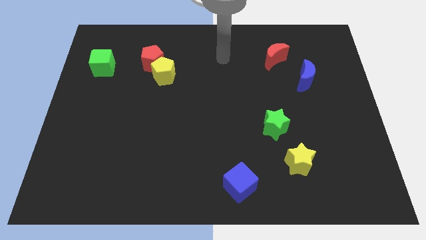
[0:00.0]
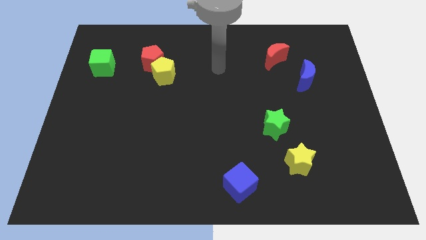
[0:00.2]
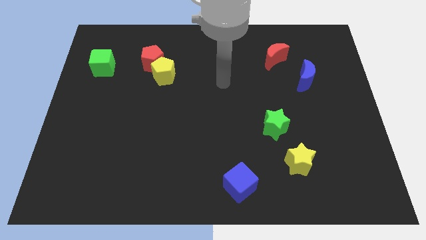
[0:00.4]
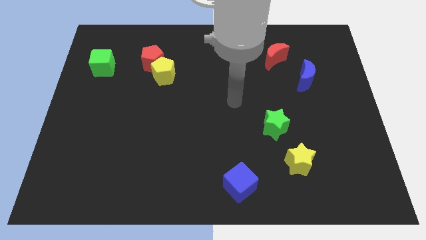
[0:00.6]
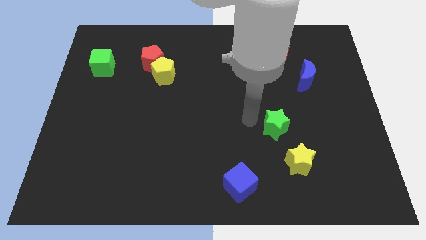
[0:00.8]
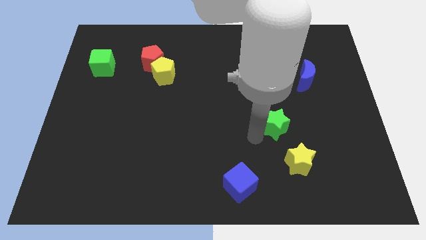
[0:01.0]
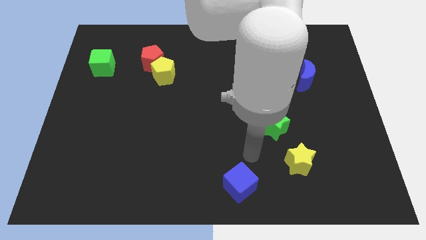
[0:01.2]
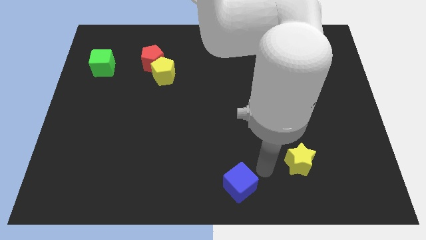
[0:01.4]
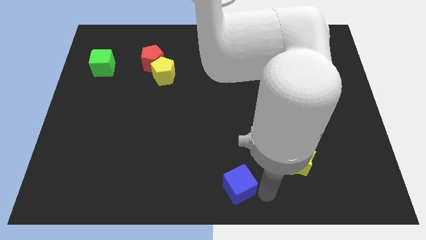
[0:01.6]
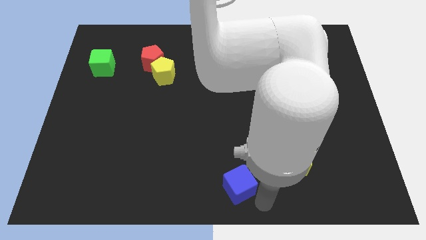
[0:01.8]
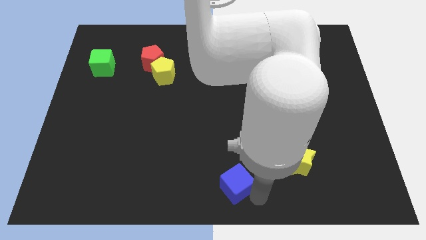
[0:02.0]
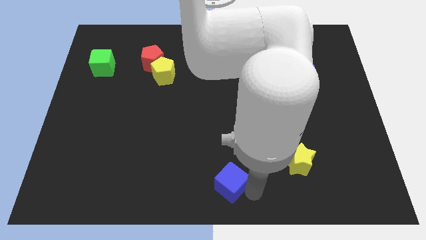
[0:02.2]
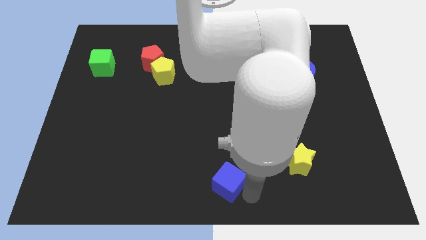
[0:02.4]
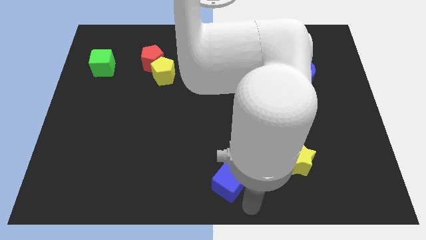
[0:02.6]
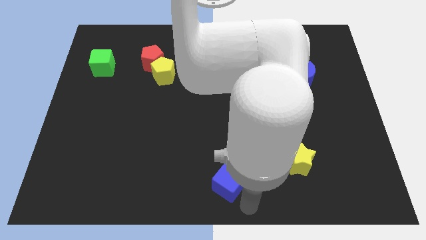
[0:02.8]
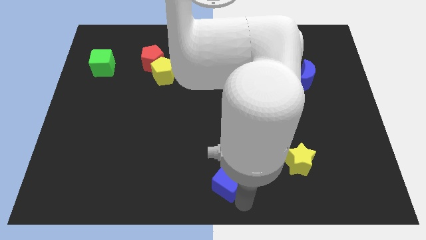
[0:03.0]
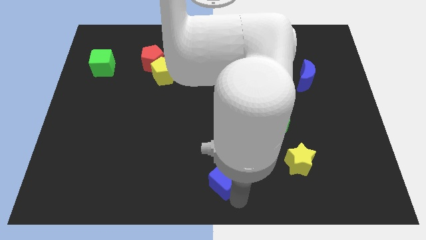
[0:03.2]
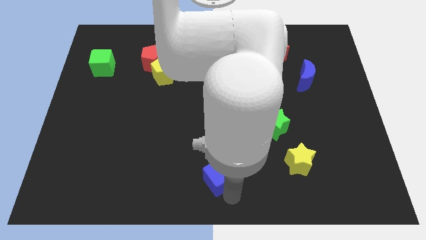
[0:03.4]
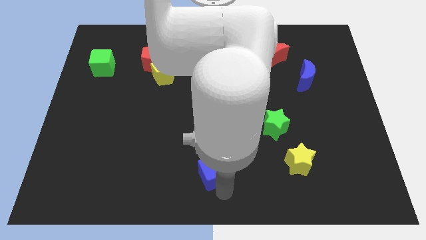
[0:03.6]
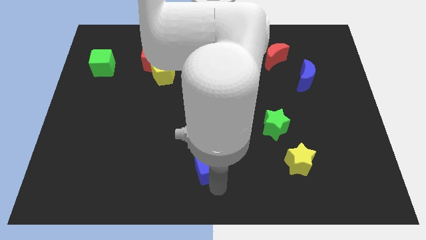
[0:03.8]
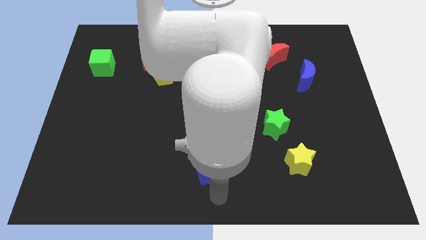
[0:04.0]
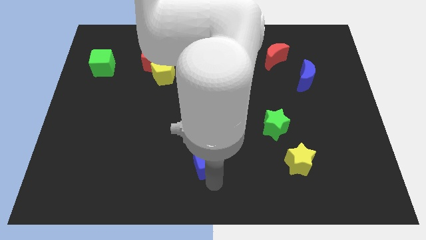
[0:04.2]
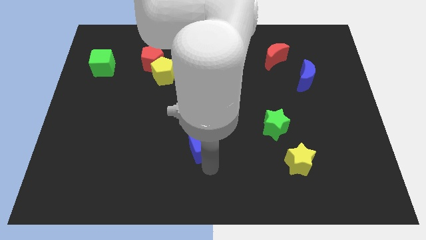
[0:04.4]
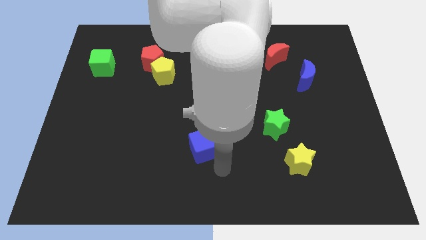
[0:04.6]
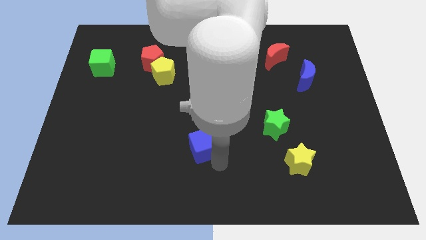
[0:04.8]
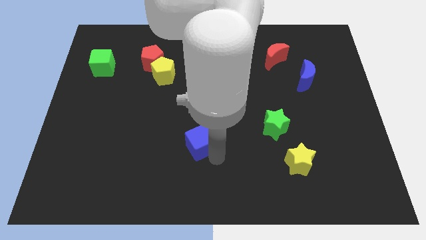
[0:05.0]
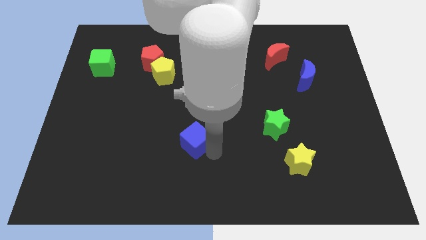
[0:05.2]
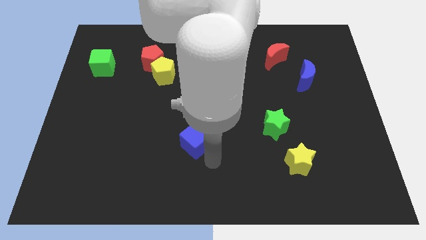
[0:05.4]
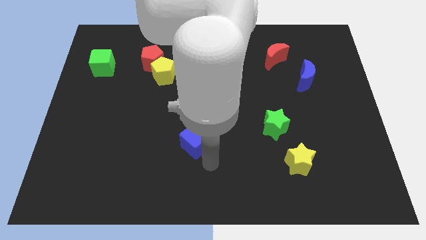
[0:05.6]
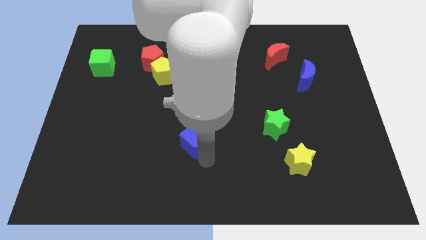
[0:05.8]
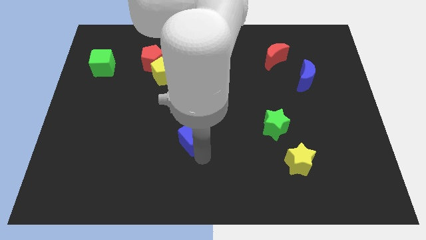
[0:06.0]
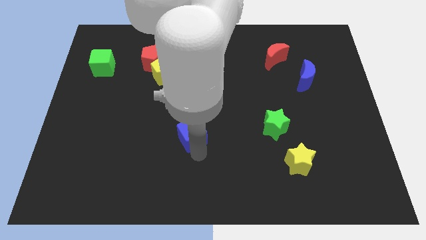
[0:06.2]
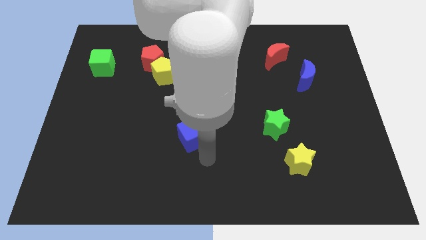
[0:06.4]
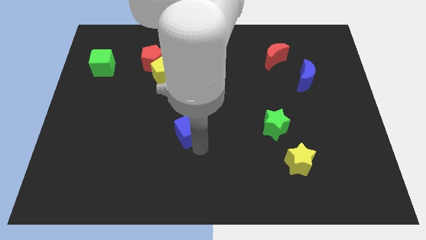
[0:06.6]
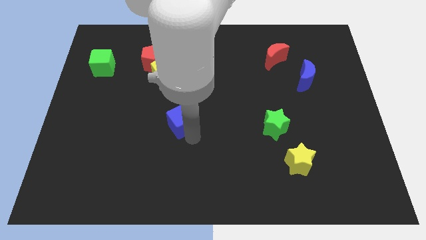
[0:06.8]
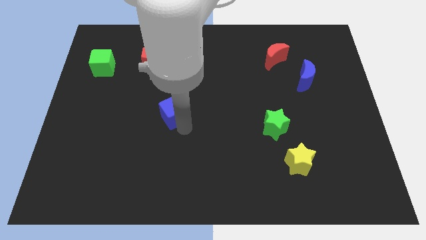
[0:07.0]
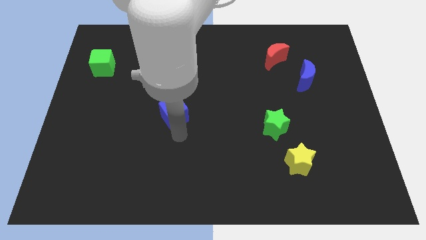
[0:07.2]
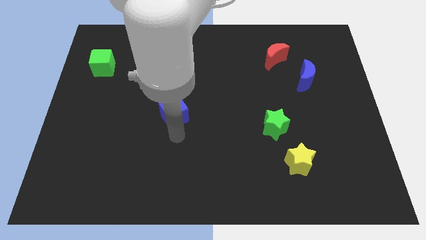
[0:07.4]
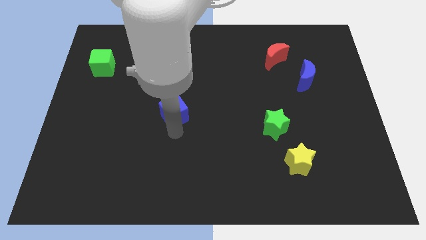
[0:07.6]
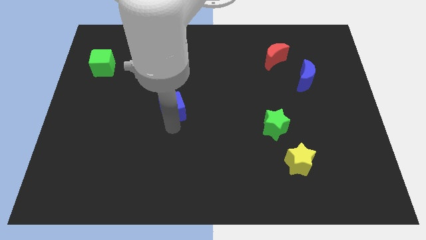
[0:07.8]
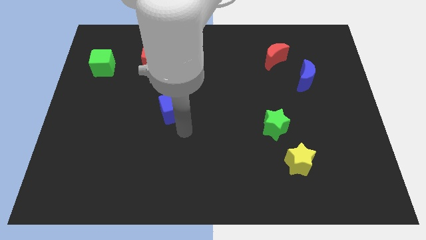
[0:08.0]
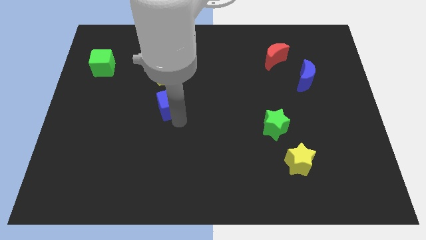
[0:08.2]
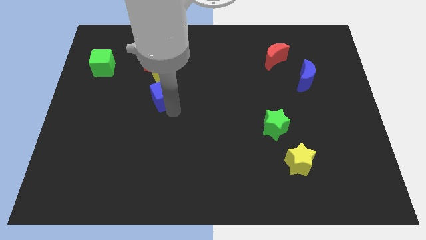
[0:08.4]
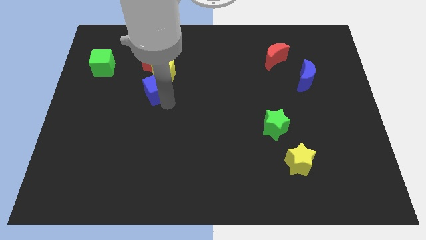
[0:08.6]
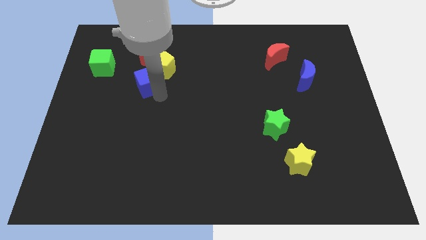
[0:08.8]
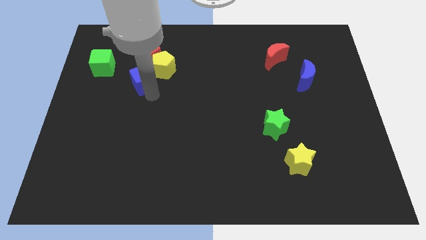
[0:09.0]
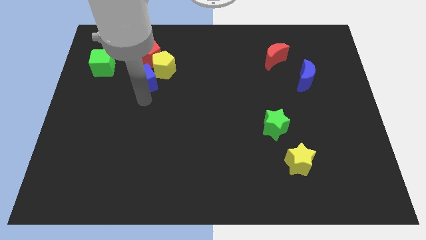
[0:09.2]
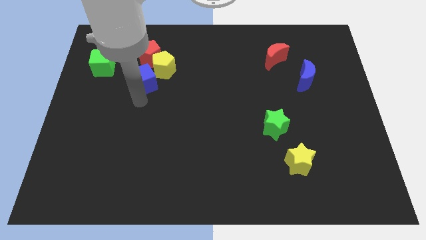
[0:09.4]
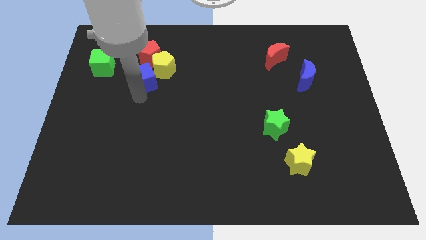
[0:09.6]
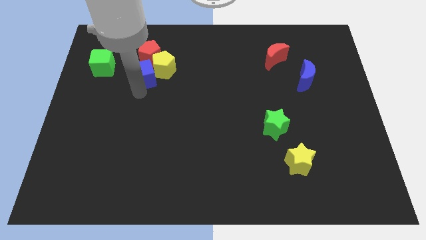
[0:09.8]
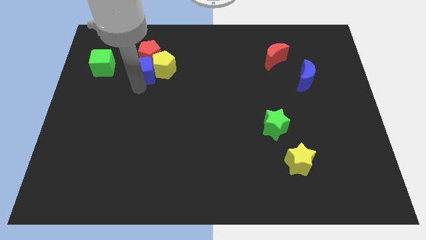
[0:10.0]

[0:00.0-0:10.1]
move the blue cube close to the red pentagon

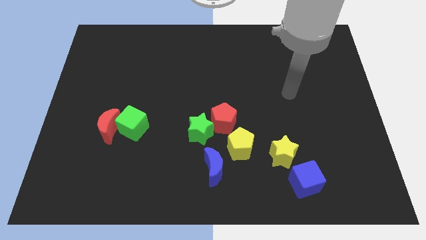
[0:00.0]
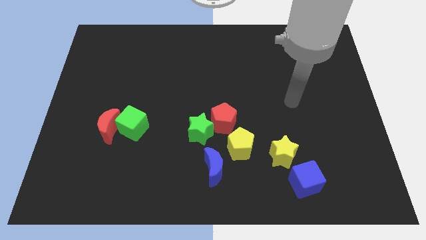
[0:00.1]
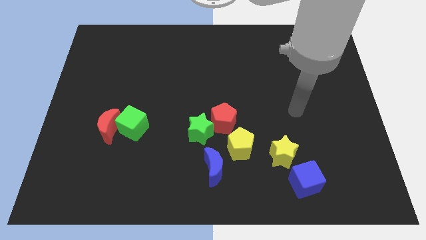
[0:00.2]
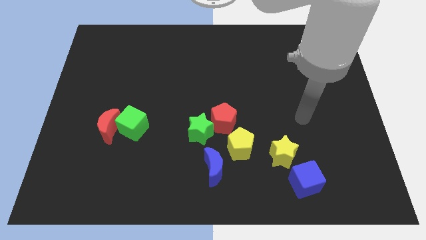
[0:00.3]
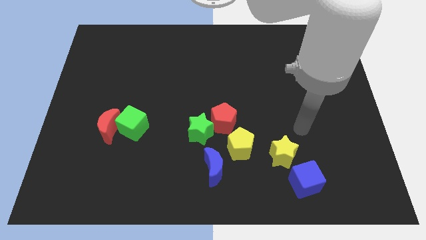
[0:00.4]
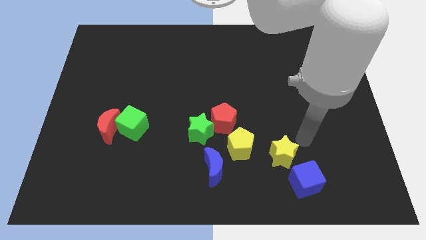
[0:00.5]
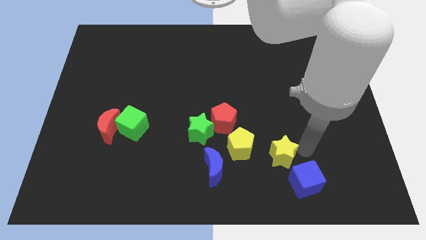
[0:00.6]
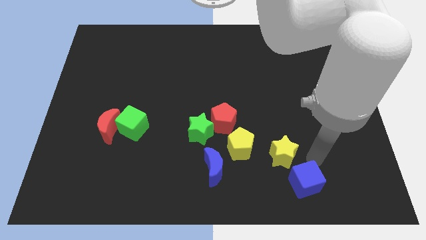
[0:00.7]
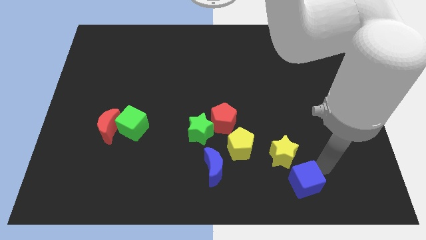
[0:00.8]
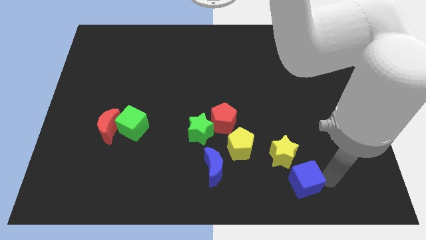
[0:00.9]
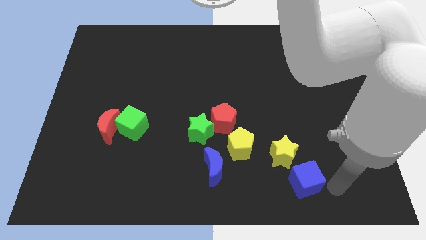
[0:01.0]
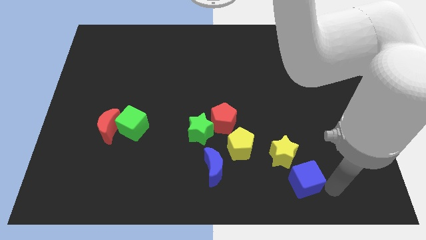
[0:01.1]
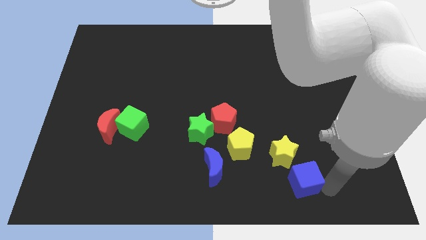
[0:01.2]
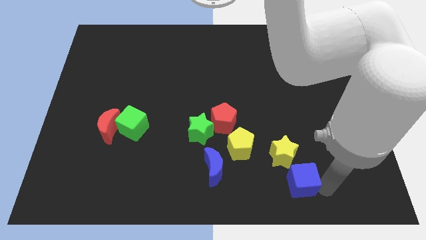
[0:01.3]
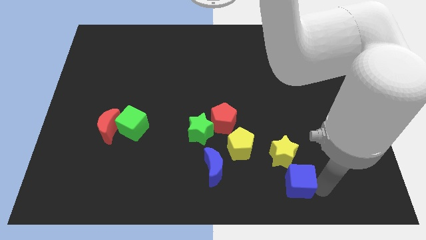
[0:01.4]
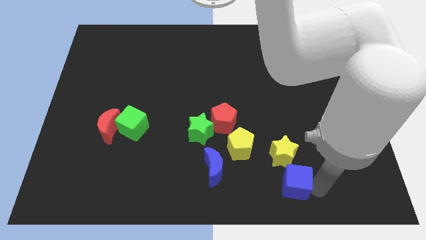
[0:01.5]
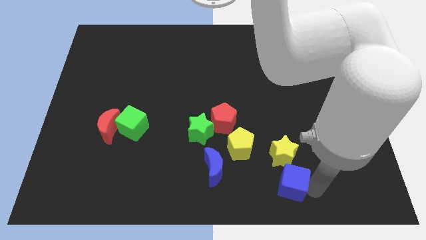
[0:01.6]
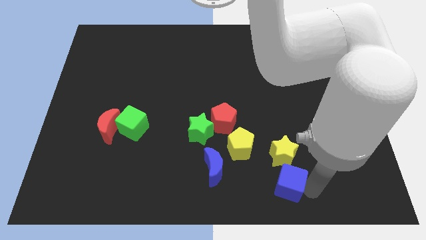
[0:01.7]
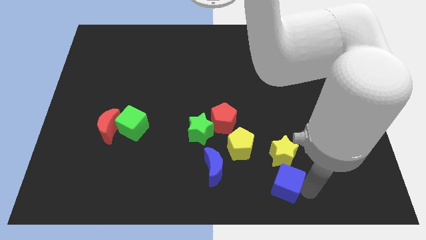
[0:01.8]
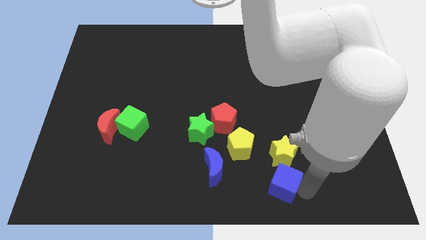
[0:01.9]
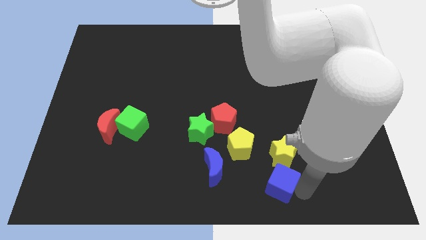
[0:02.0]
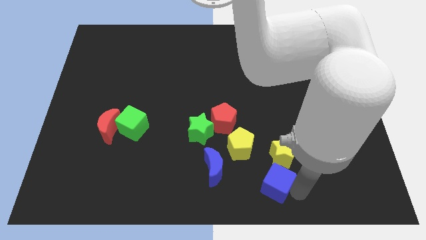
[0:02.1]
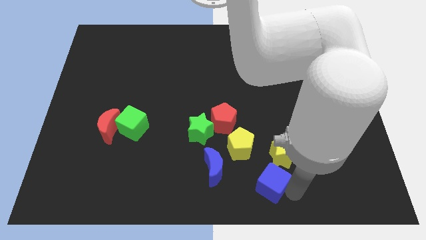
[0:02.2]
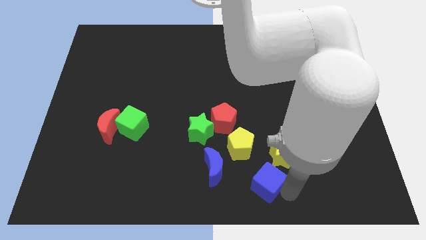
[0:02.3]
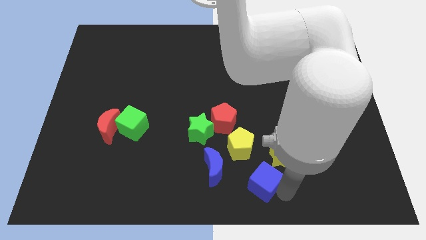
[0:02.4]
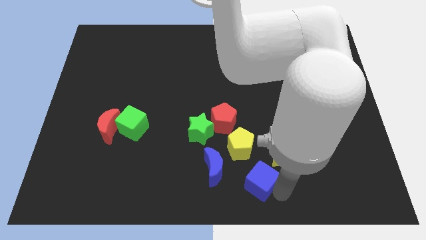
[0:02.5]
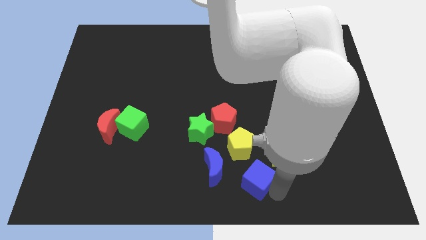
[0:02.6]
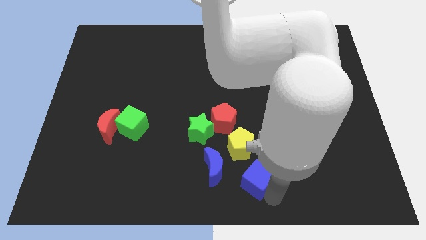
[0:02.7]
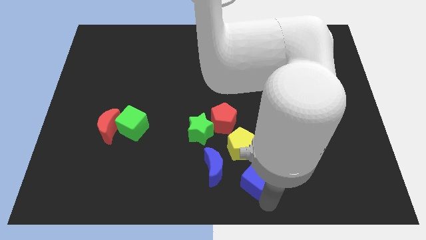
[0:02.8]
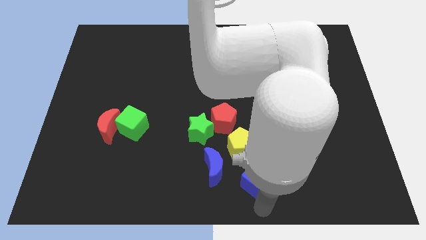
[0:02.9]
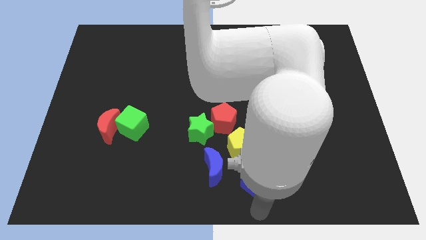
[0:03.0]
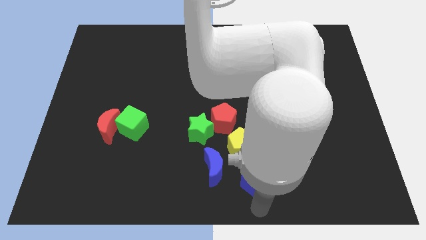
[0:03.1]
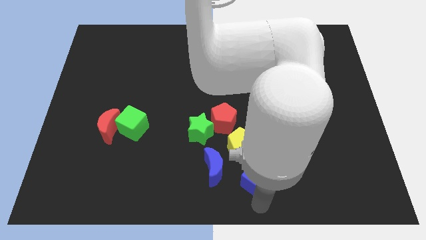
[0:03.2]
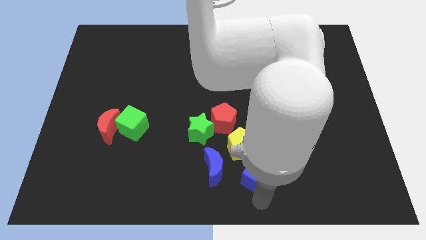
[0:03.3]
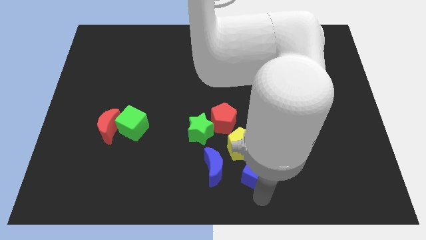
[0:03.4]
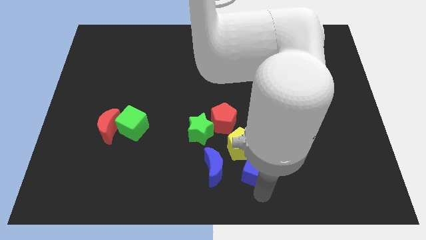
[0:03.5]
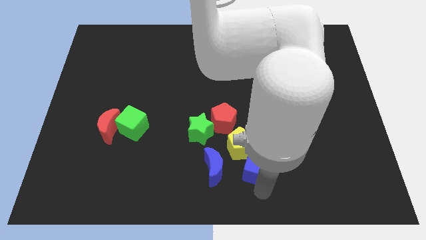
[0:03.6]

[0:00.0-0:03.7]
put the blue cube towards the yellow pentagon
